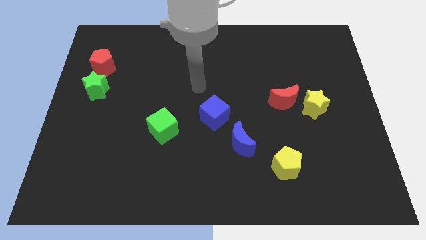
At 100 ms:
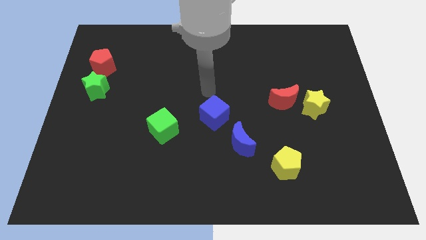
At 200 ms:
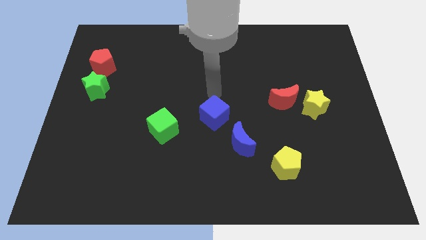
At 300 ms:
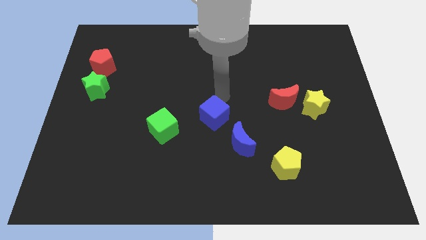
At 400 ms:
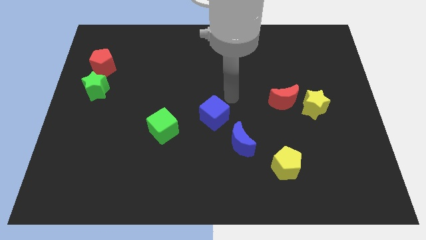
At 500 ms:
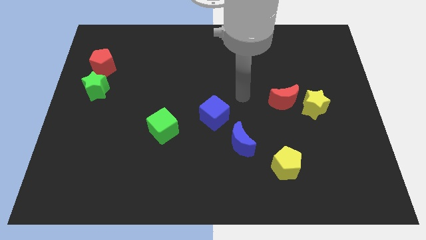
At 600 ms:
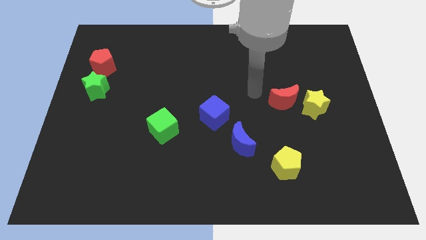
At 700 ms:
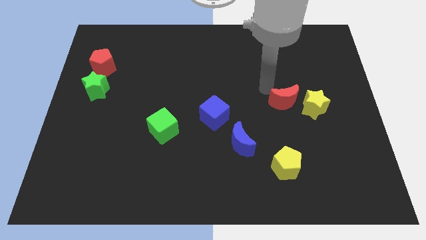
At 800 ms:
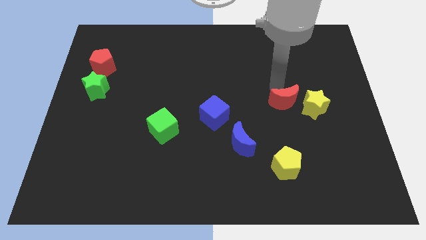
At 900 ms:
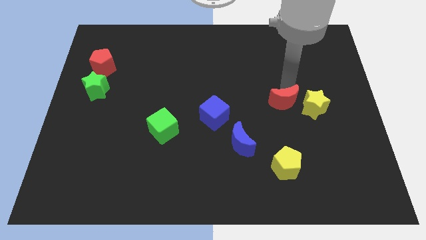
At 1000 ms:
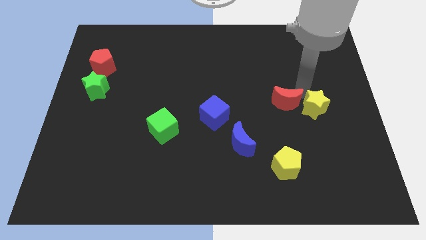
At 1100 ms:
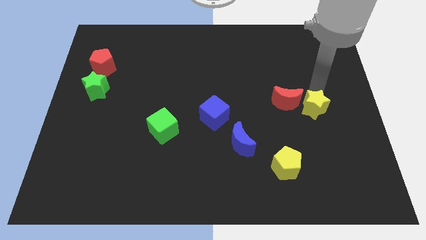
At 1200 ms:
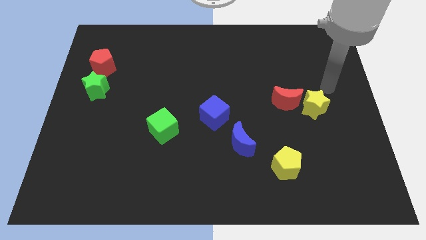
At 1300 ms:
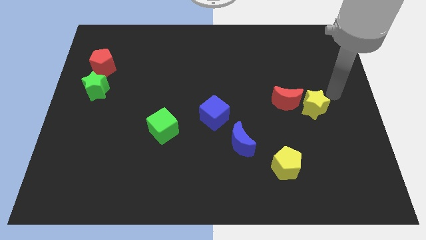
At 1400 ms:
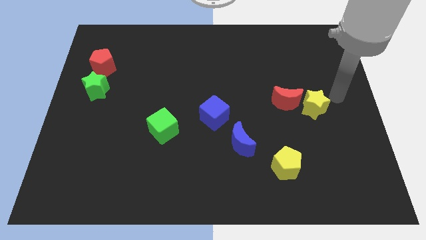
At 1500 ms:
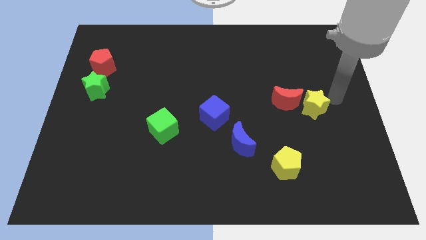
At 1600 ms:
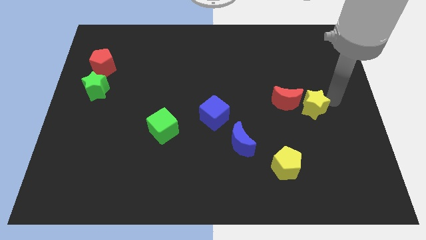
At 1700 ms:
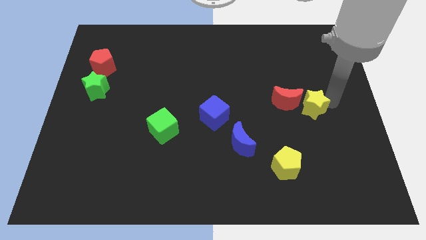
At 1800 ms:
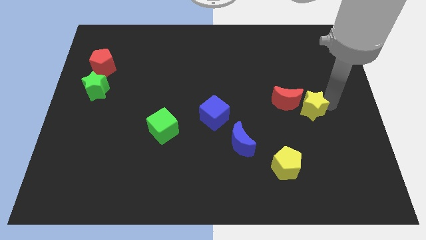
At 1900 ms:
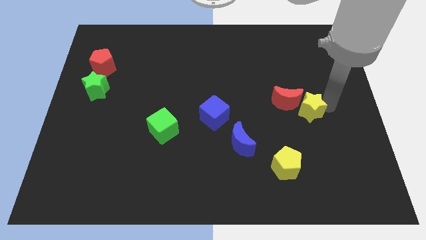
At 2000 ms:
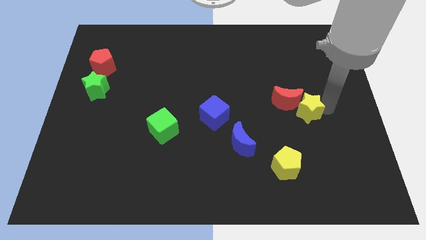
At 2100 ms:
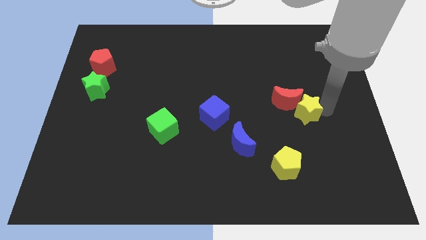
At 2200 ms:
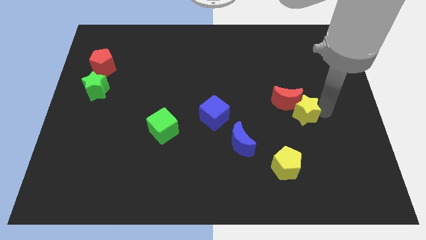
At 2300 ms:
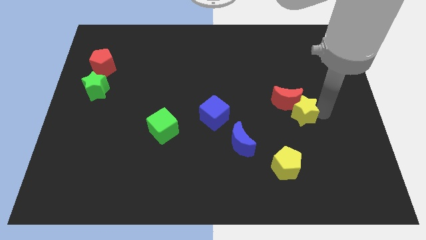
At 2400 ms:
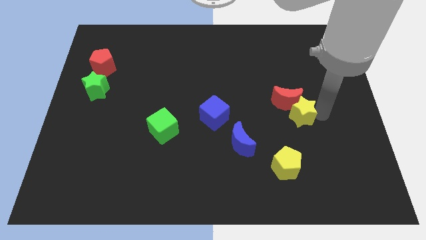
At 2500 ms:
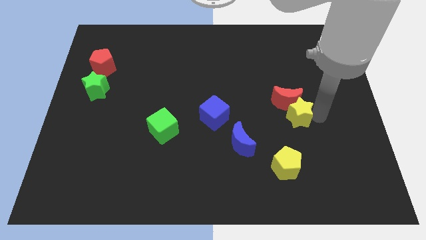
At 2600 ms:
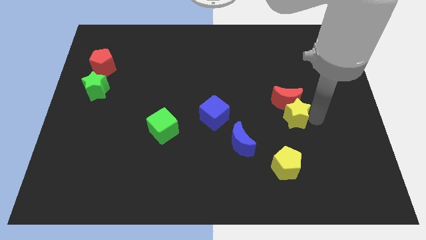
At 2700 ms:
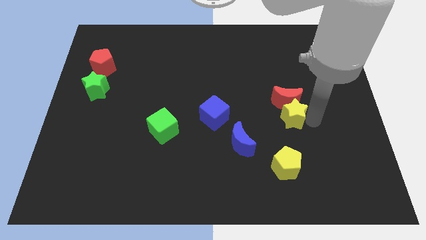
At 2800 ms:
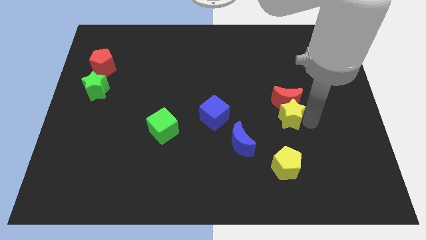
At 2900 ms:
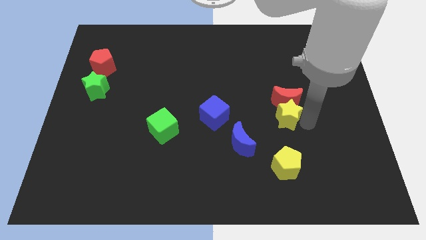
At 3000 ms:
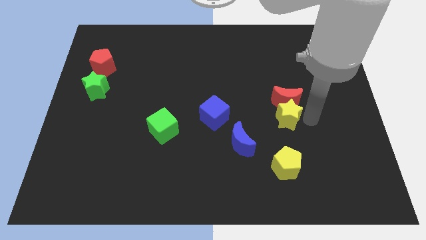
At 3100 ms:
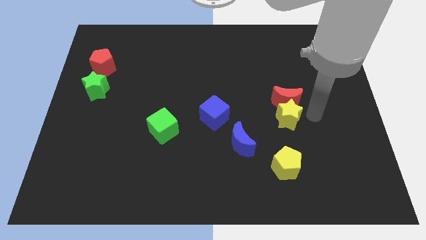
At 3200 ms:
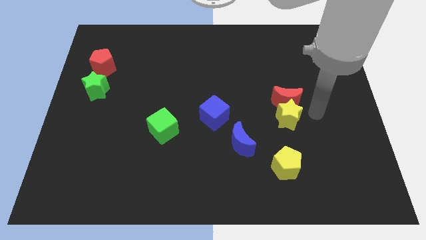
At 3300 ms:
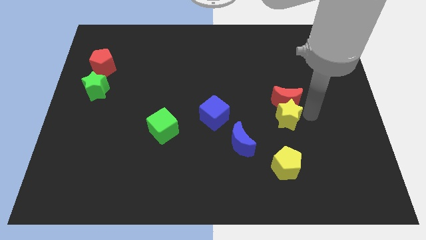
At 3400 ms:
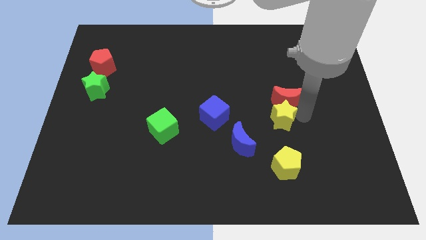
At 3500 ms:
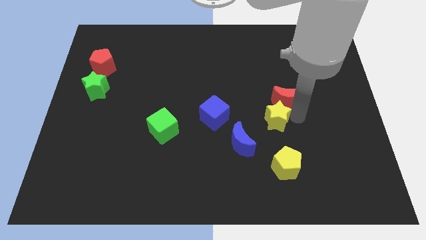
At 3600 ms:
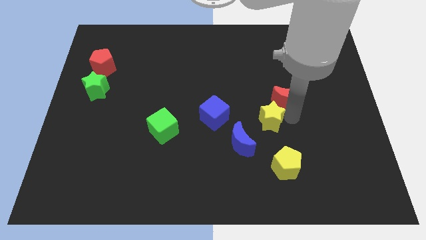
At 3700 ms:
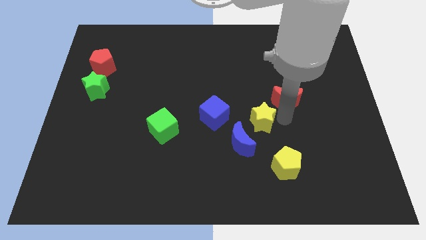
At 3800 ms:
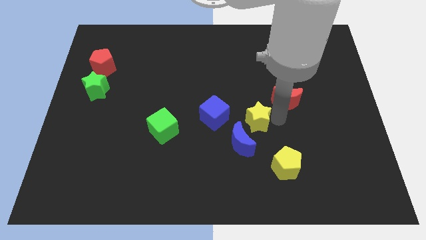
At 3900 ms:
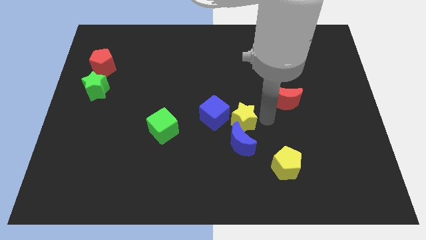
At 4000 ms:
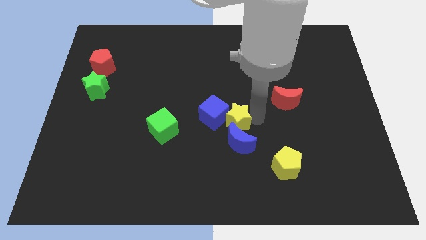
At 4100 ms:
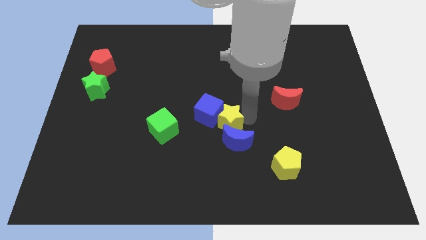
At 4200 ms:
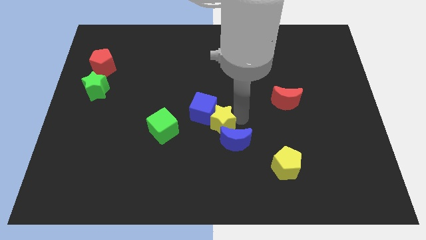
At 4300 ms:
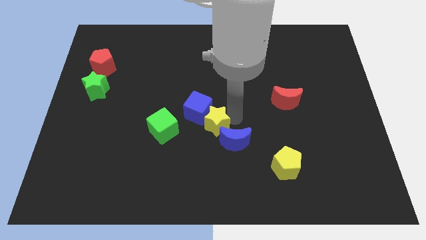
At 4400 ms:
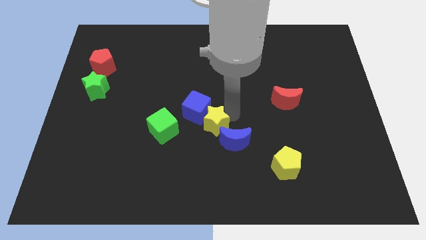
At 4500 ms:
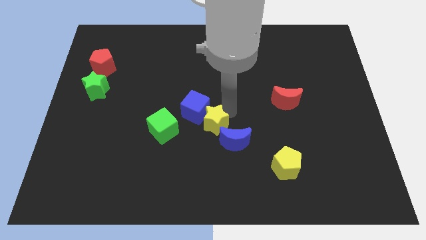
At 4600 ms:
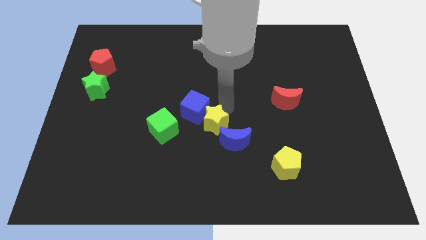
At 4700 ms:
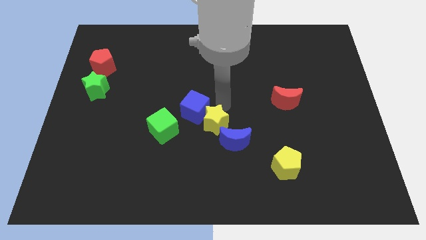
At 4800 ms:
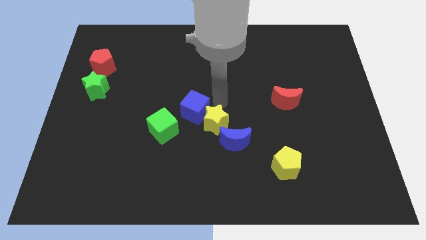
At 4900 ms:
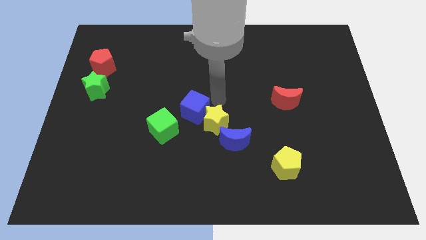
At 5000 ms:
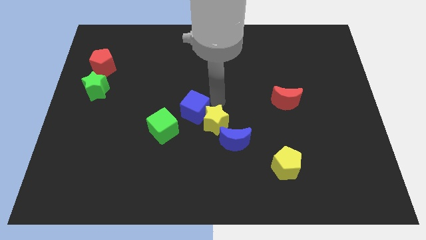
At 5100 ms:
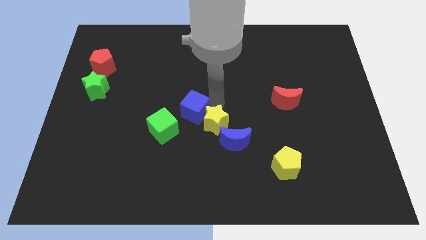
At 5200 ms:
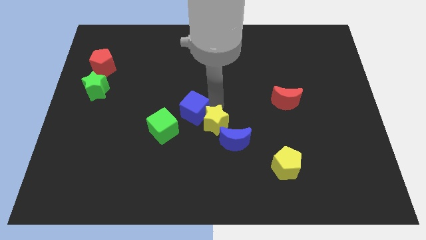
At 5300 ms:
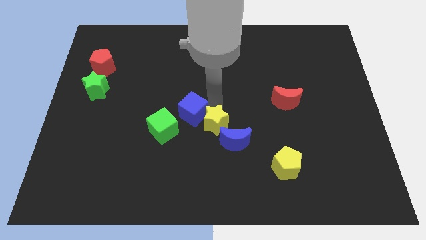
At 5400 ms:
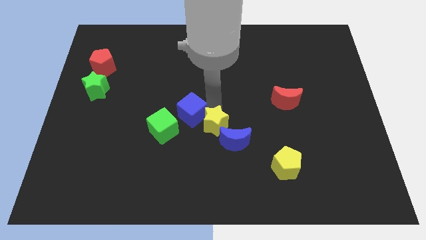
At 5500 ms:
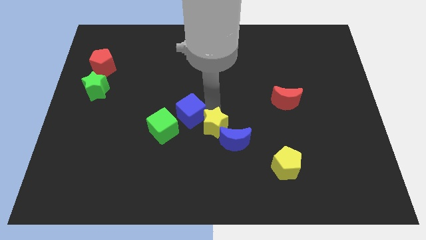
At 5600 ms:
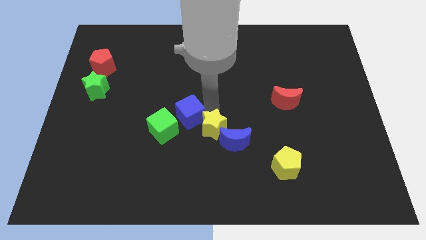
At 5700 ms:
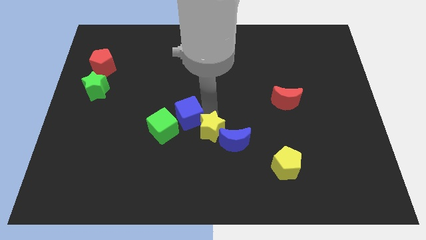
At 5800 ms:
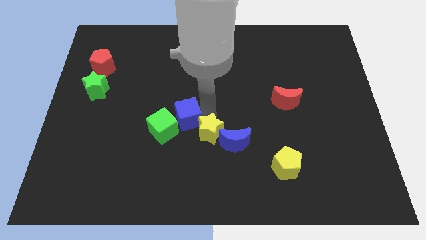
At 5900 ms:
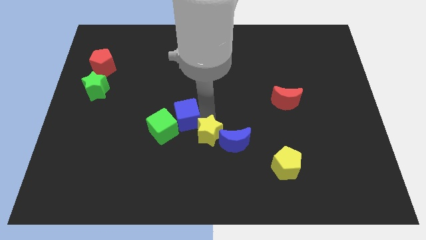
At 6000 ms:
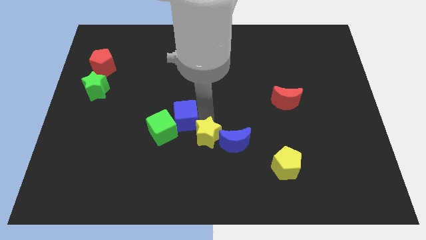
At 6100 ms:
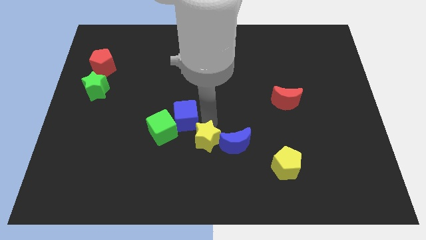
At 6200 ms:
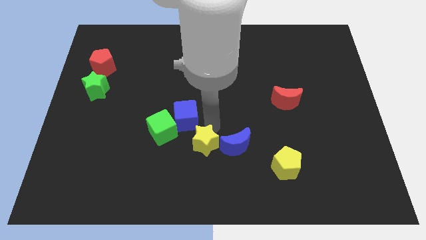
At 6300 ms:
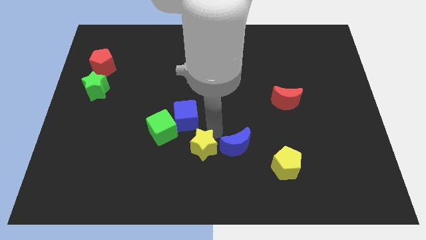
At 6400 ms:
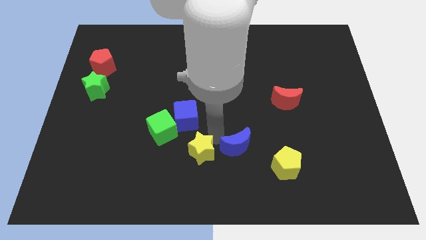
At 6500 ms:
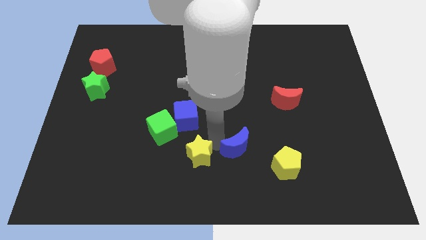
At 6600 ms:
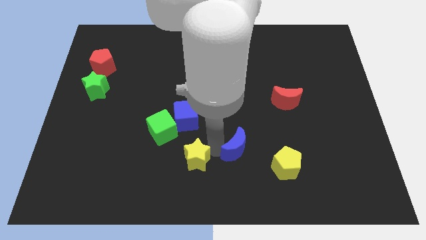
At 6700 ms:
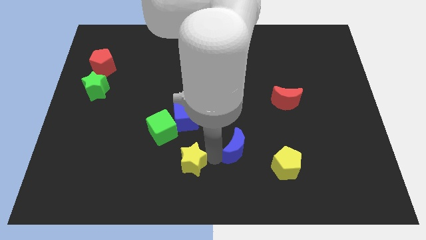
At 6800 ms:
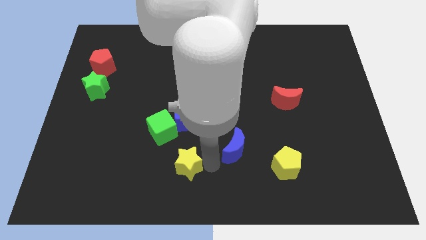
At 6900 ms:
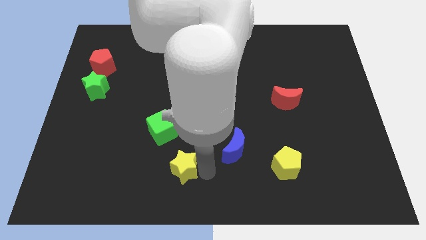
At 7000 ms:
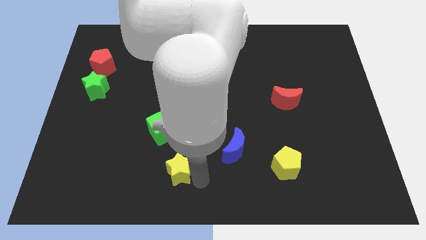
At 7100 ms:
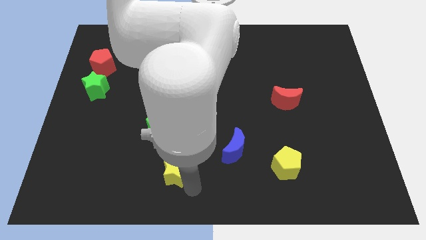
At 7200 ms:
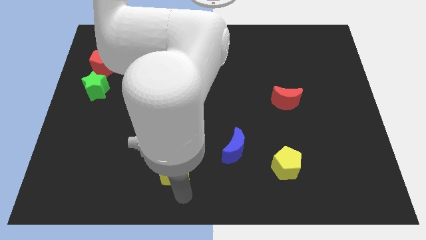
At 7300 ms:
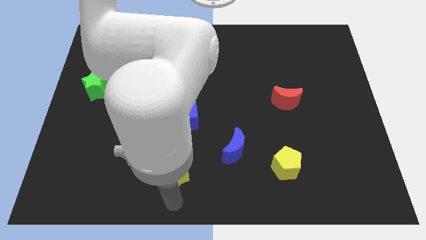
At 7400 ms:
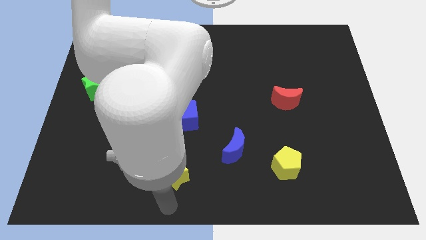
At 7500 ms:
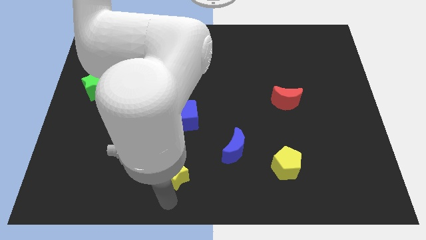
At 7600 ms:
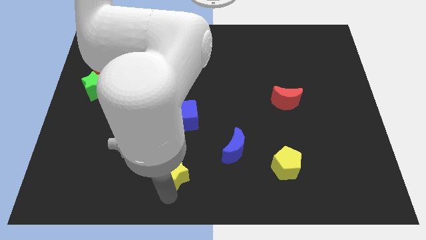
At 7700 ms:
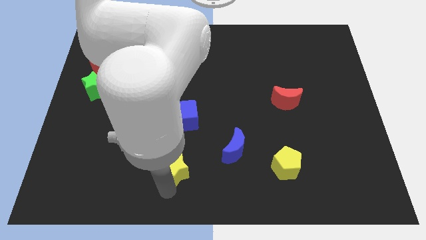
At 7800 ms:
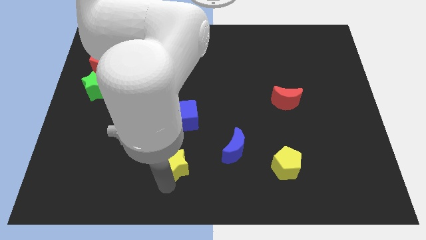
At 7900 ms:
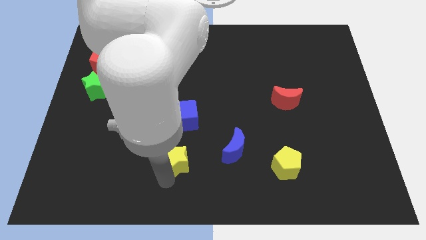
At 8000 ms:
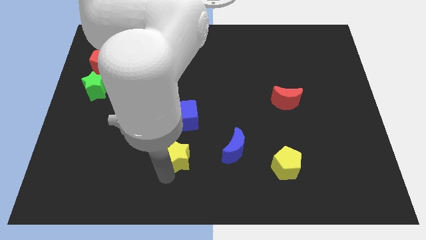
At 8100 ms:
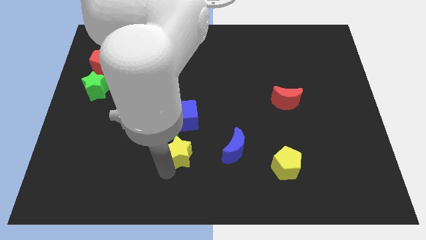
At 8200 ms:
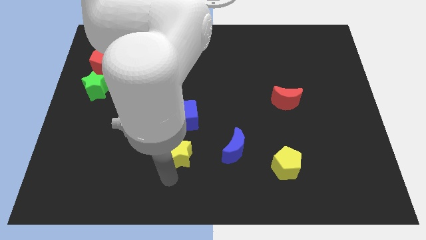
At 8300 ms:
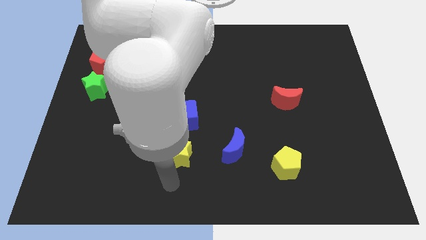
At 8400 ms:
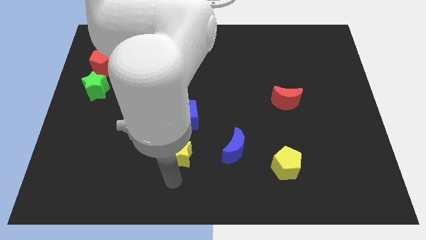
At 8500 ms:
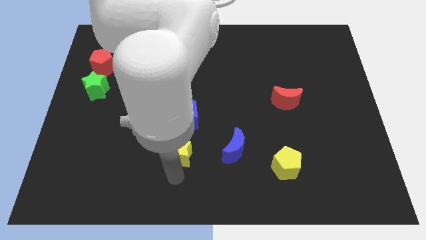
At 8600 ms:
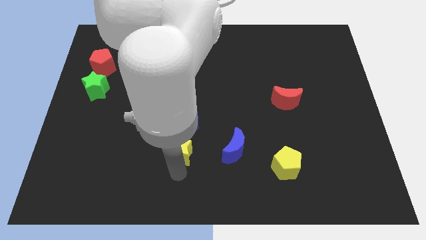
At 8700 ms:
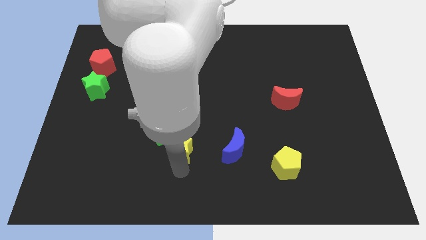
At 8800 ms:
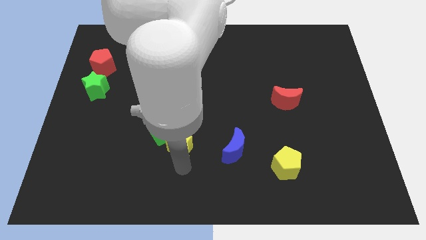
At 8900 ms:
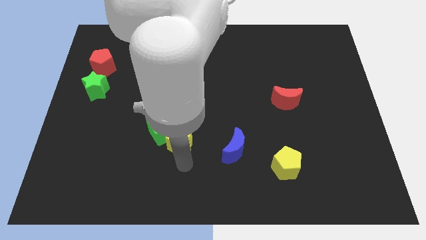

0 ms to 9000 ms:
slide the yellow star to the green cube
